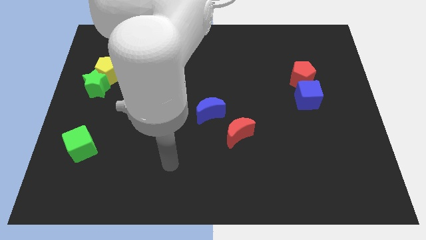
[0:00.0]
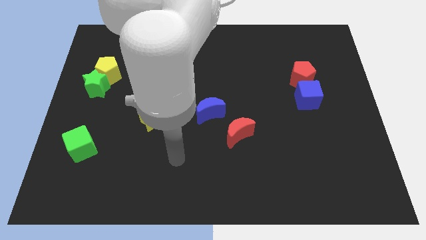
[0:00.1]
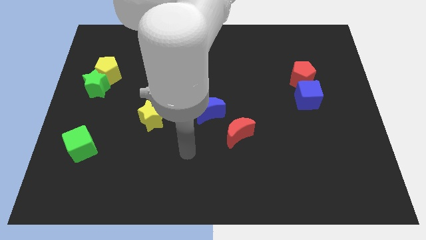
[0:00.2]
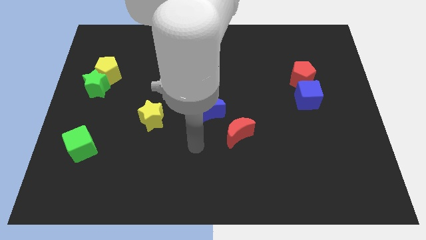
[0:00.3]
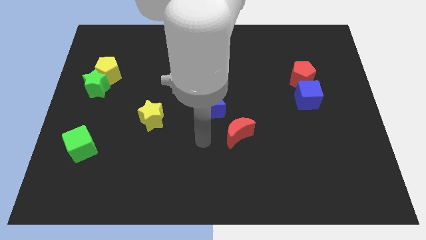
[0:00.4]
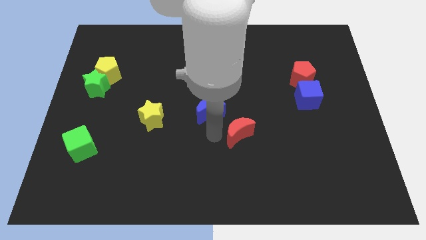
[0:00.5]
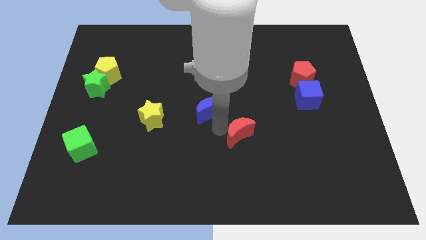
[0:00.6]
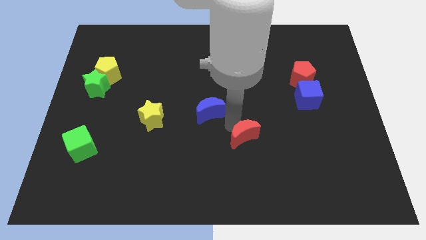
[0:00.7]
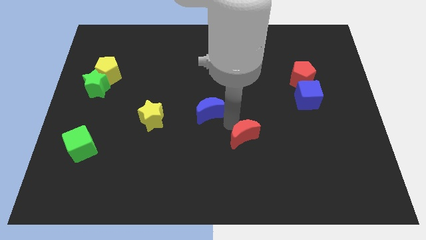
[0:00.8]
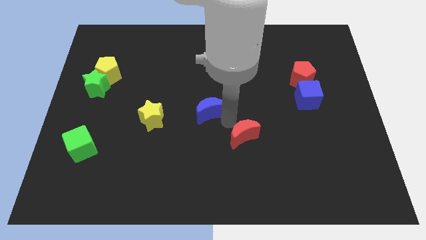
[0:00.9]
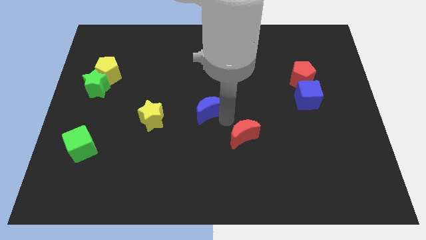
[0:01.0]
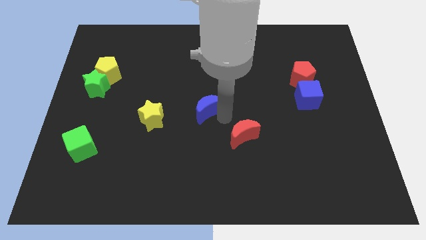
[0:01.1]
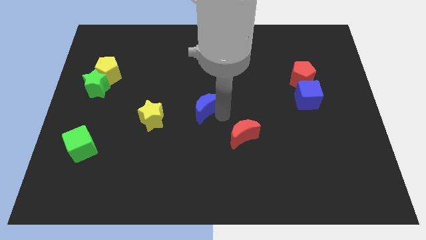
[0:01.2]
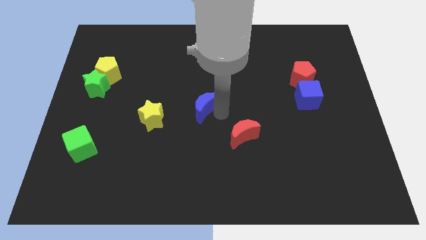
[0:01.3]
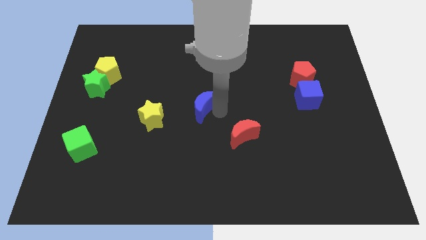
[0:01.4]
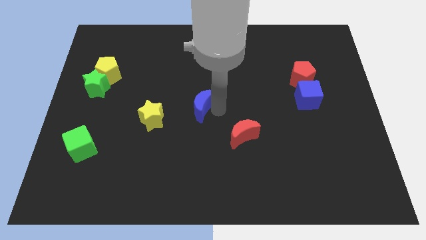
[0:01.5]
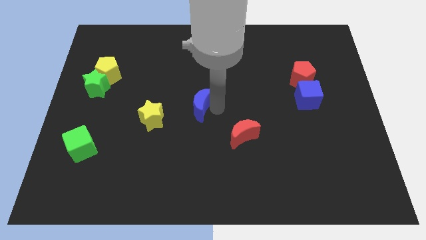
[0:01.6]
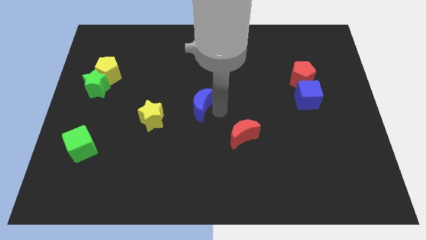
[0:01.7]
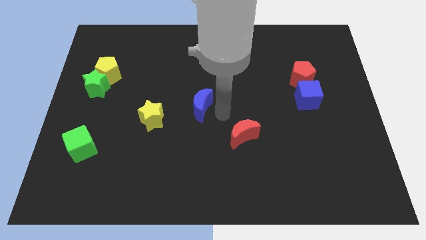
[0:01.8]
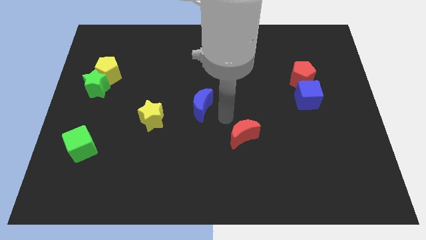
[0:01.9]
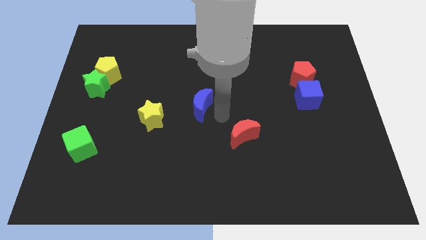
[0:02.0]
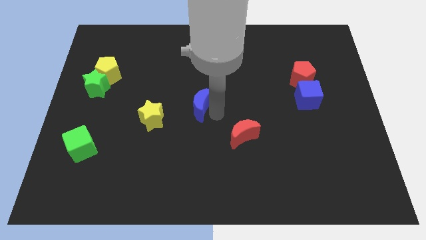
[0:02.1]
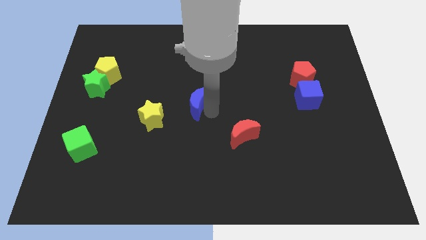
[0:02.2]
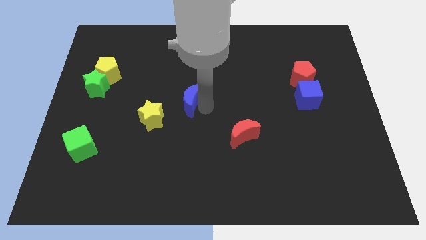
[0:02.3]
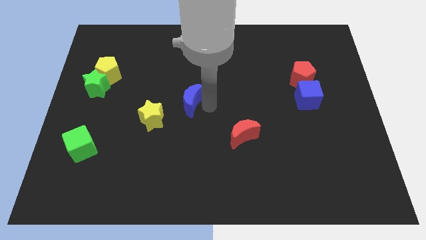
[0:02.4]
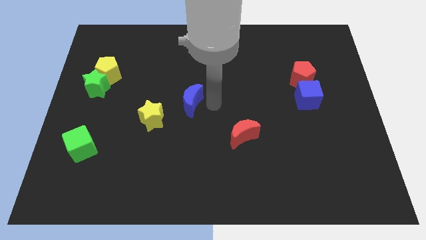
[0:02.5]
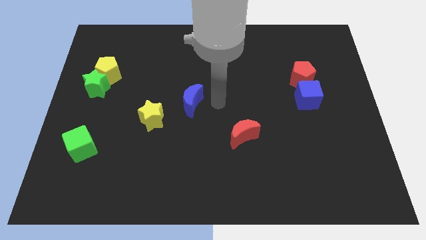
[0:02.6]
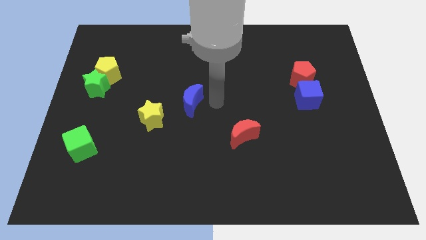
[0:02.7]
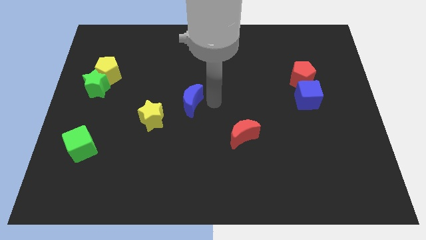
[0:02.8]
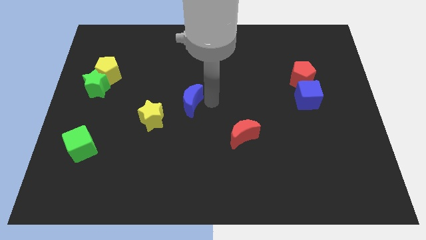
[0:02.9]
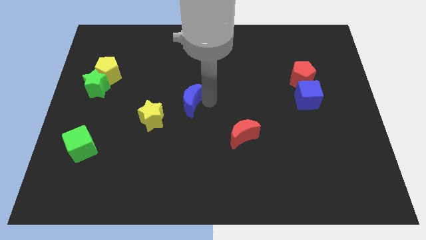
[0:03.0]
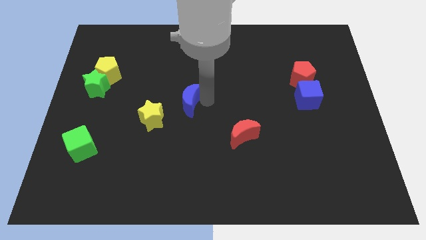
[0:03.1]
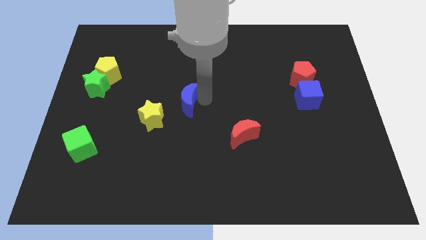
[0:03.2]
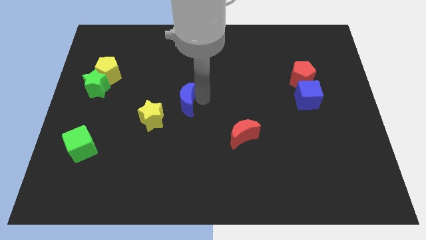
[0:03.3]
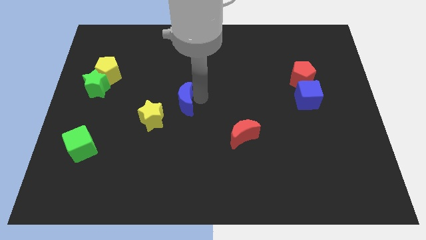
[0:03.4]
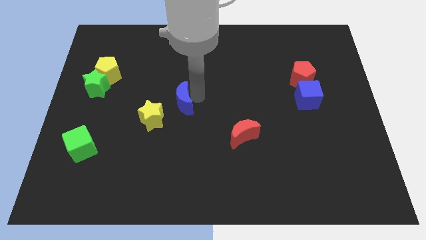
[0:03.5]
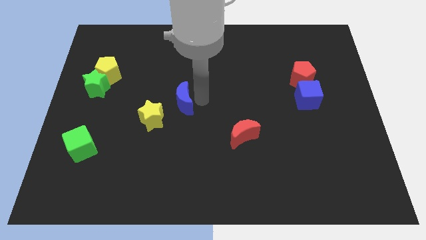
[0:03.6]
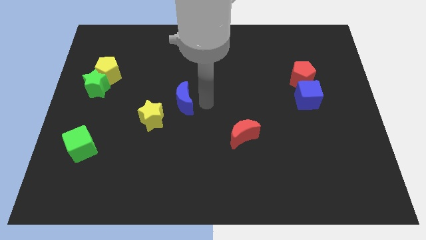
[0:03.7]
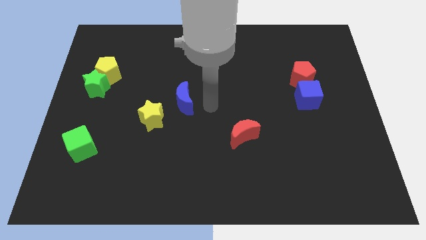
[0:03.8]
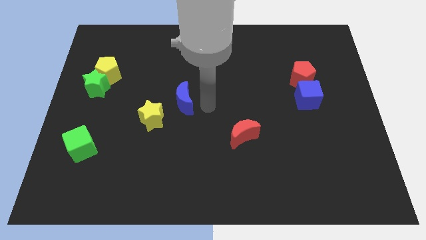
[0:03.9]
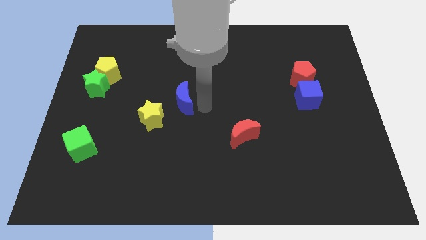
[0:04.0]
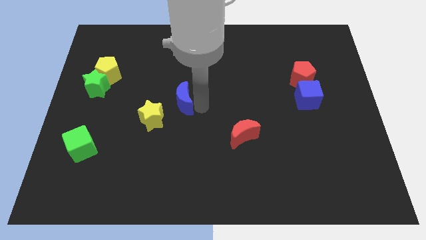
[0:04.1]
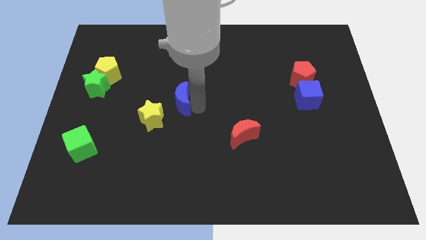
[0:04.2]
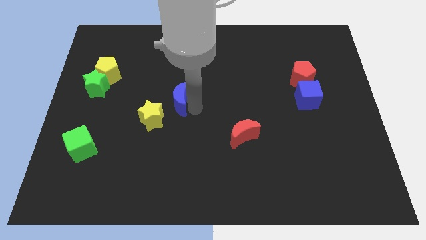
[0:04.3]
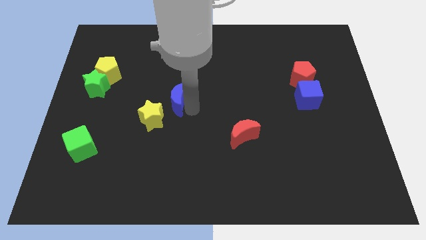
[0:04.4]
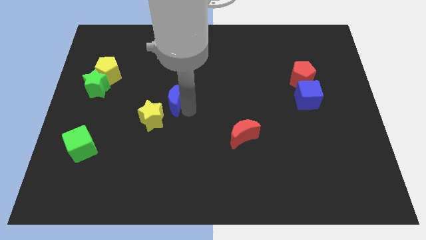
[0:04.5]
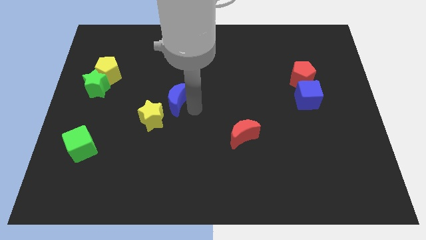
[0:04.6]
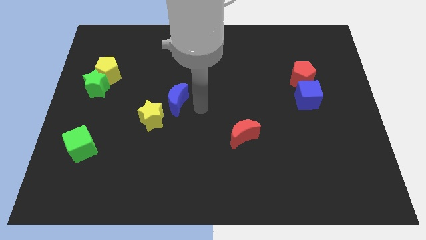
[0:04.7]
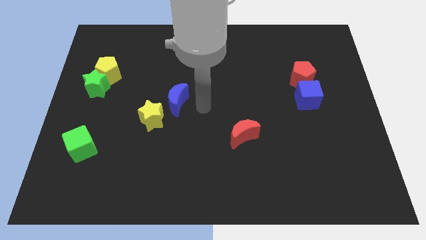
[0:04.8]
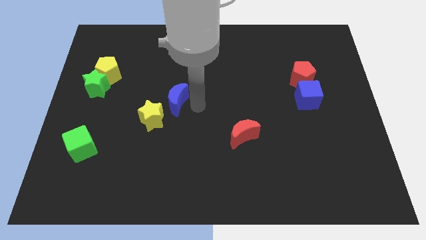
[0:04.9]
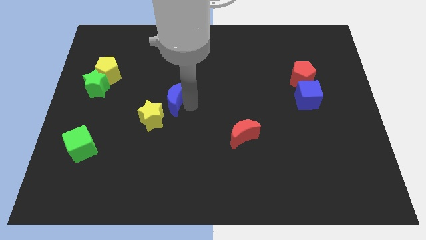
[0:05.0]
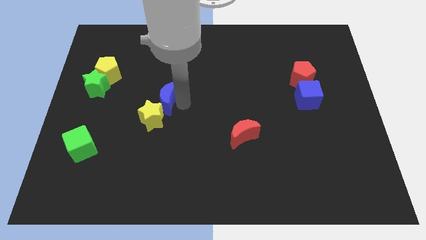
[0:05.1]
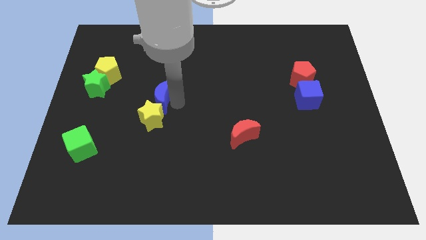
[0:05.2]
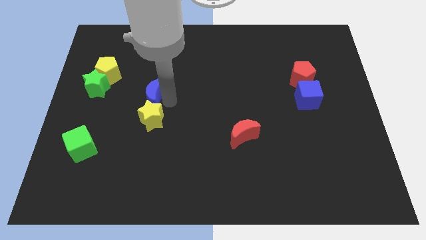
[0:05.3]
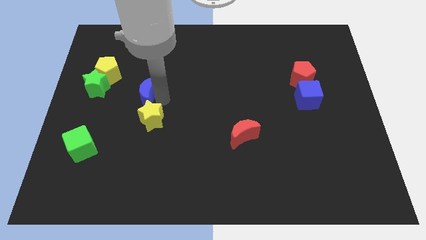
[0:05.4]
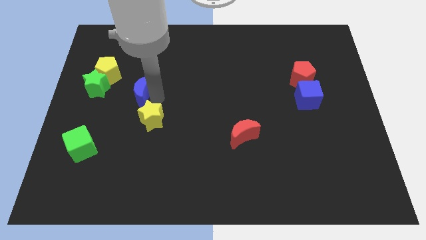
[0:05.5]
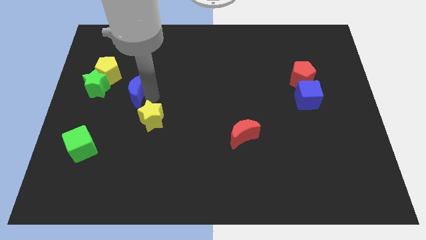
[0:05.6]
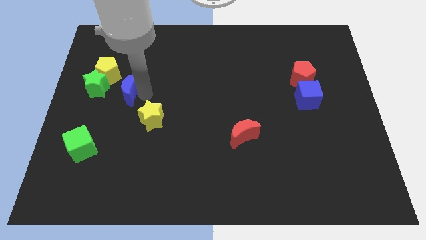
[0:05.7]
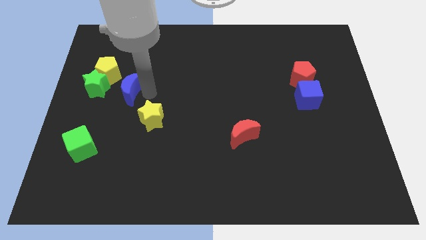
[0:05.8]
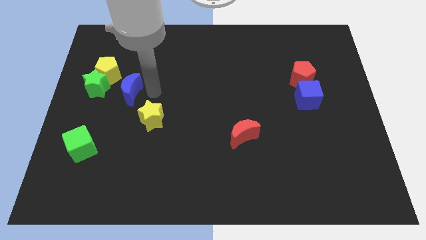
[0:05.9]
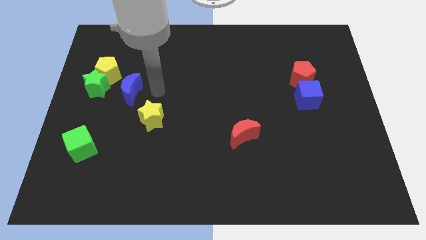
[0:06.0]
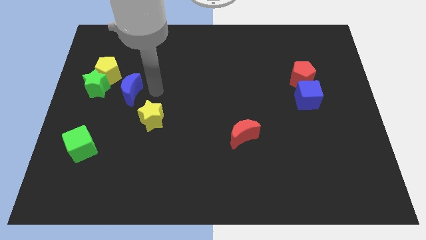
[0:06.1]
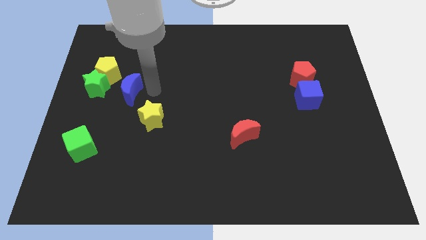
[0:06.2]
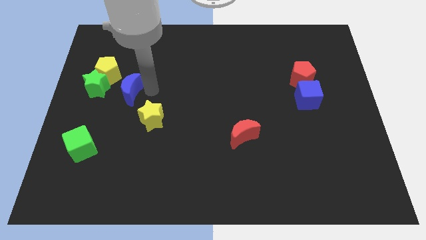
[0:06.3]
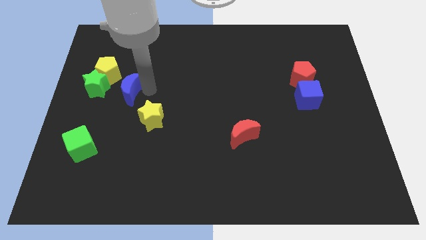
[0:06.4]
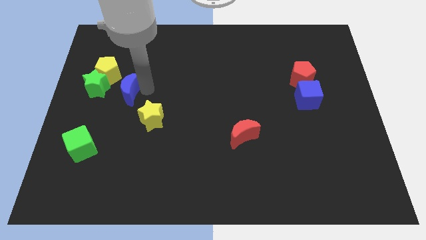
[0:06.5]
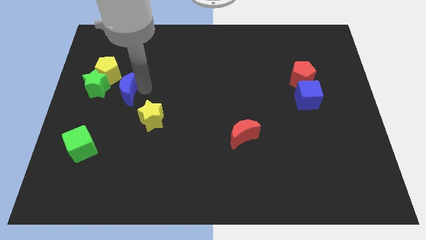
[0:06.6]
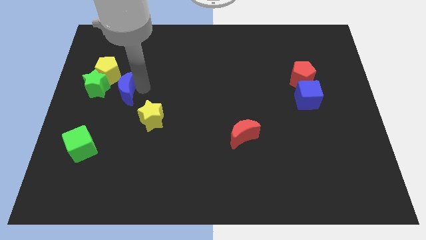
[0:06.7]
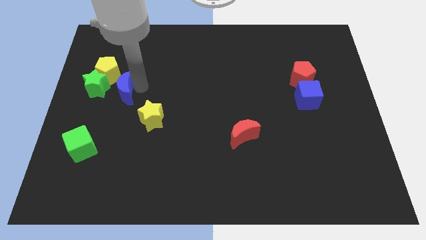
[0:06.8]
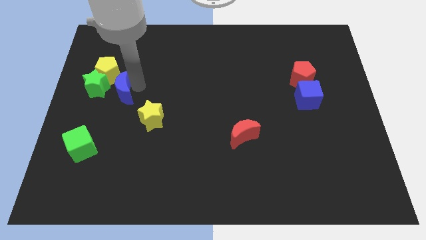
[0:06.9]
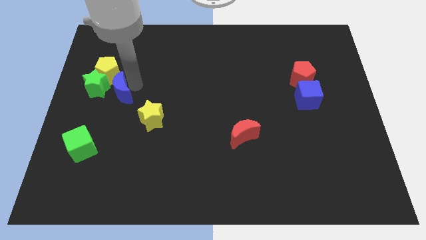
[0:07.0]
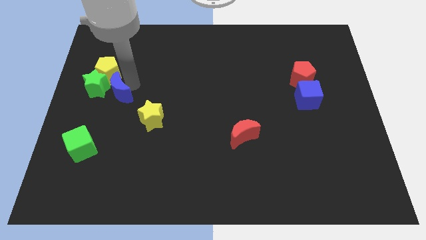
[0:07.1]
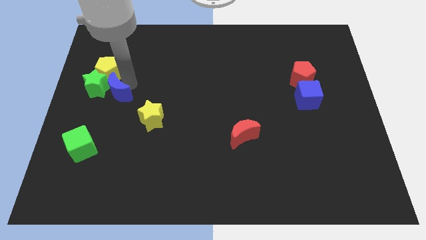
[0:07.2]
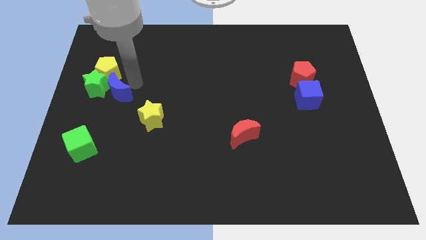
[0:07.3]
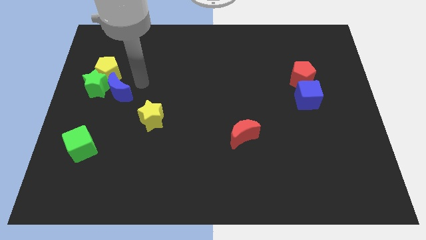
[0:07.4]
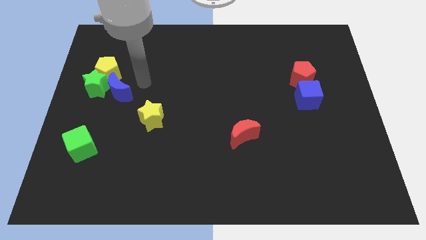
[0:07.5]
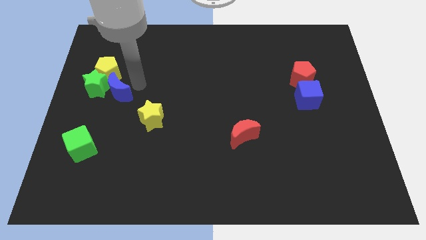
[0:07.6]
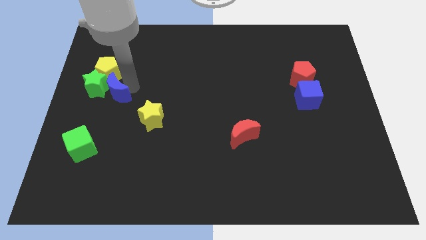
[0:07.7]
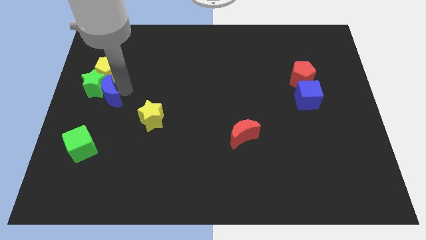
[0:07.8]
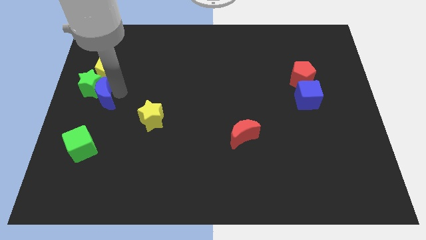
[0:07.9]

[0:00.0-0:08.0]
move the blue moon to the center left
